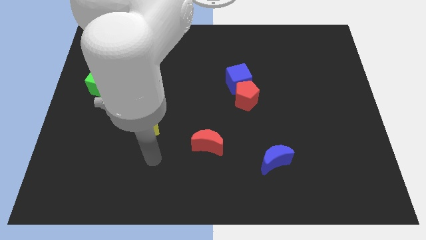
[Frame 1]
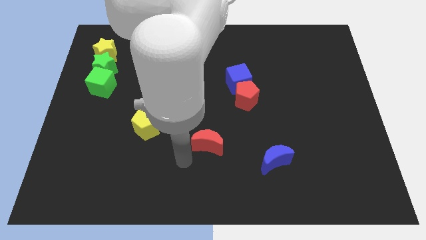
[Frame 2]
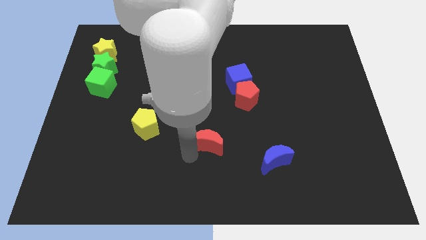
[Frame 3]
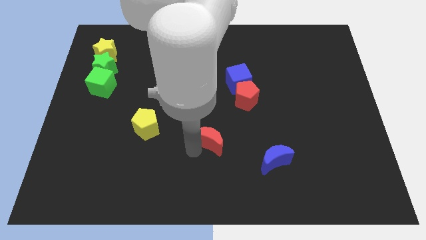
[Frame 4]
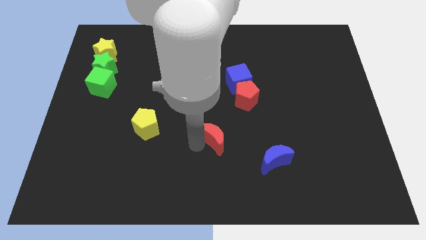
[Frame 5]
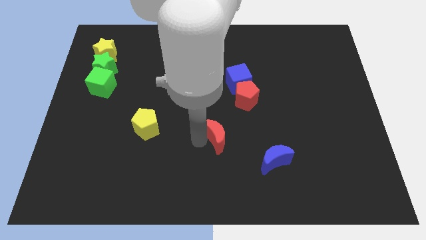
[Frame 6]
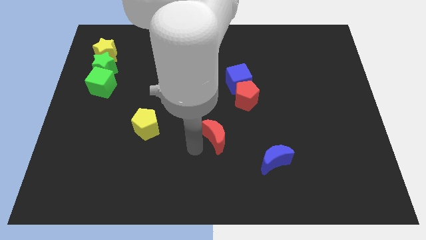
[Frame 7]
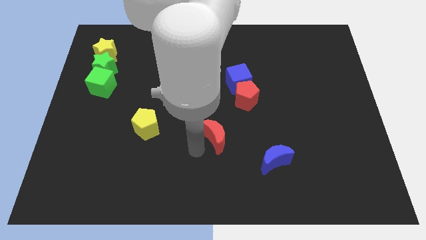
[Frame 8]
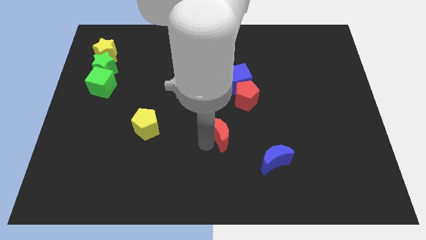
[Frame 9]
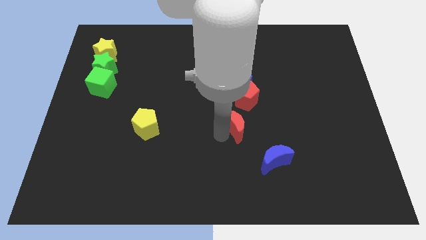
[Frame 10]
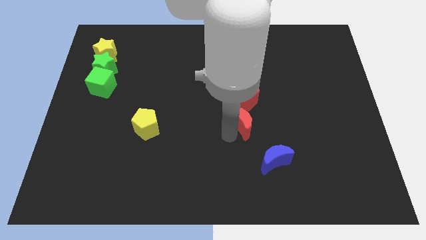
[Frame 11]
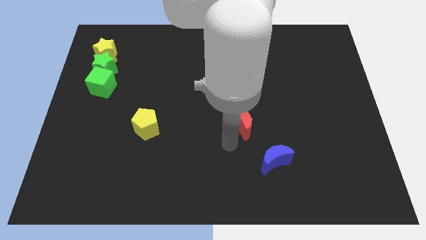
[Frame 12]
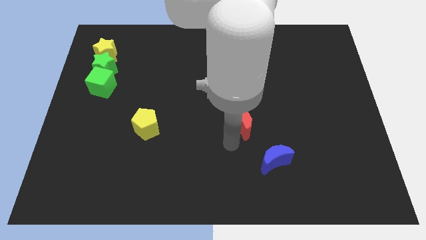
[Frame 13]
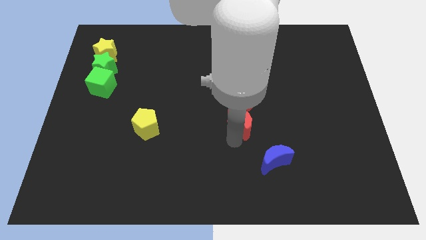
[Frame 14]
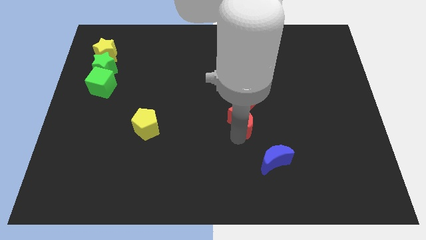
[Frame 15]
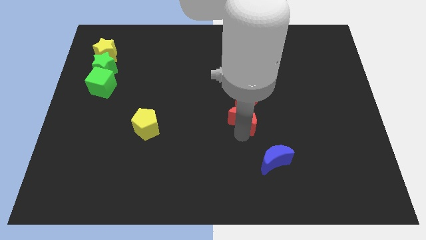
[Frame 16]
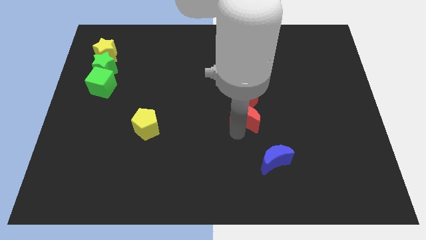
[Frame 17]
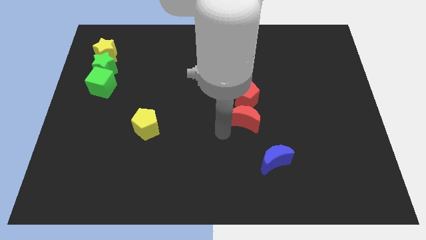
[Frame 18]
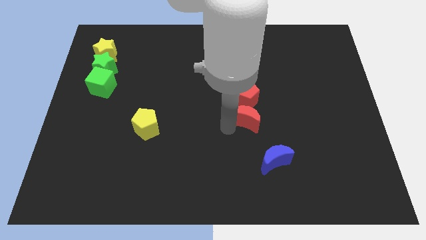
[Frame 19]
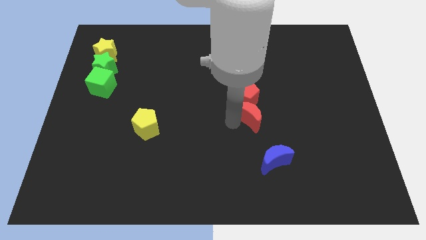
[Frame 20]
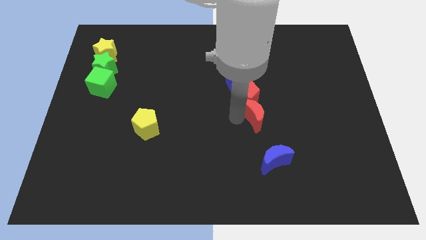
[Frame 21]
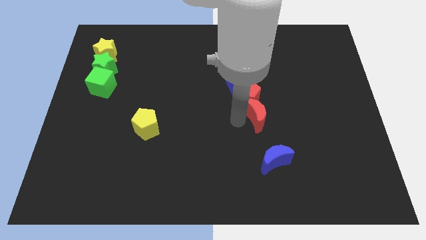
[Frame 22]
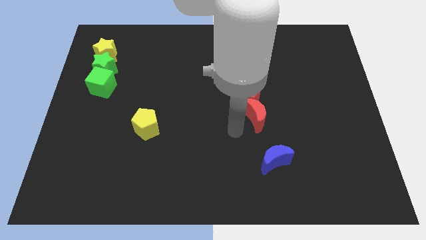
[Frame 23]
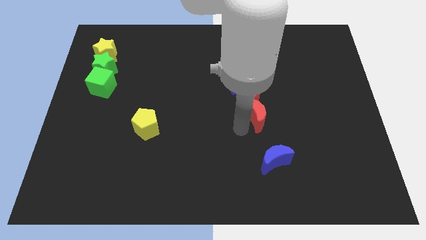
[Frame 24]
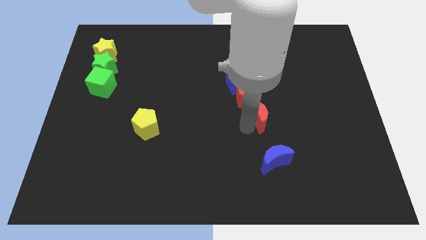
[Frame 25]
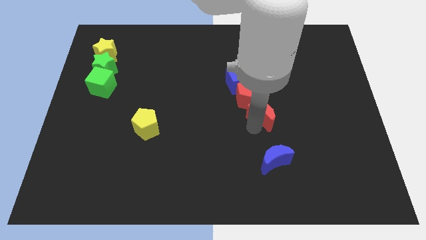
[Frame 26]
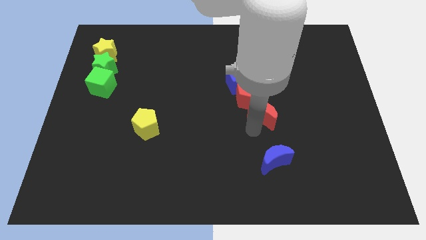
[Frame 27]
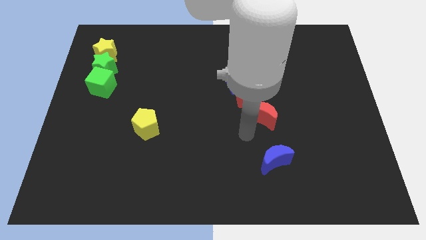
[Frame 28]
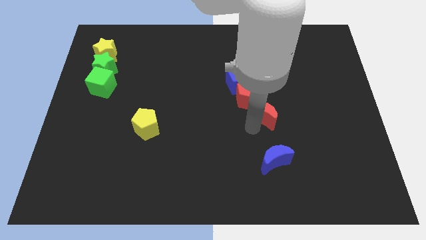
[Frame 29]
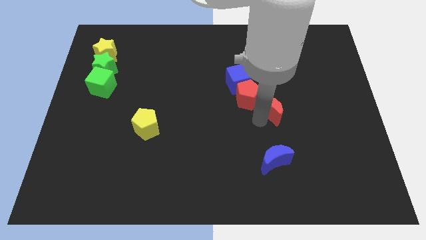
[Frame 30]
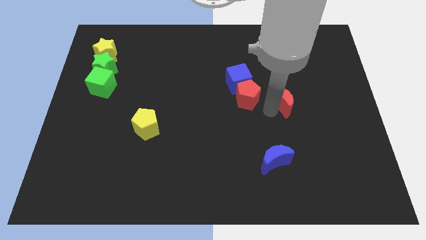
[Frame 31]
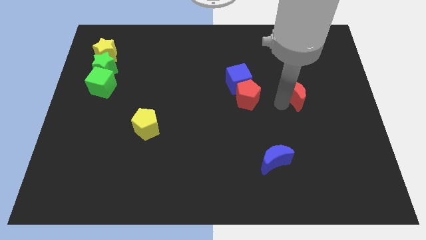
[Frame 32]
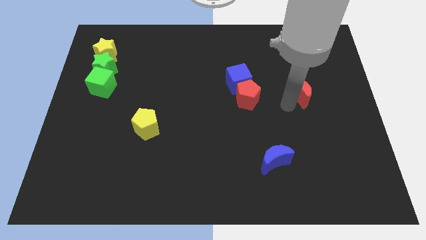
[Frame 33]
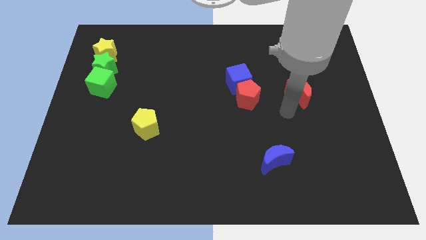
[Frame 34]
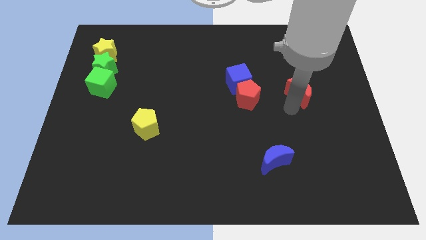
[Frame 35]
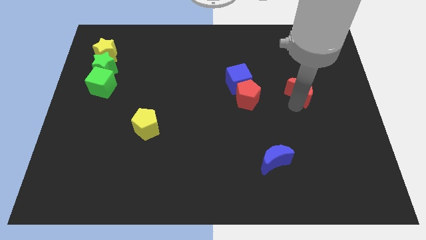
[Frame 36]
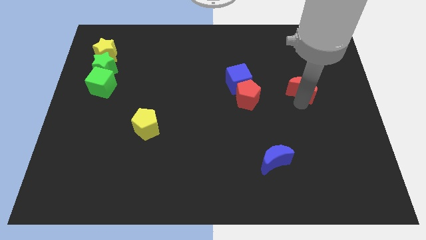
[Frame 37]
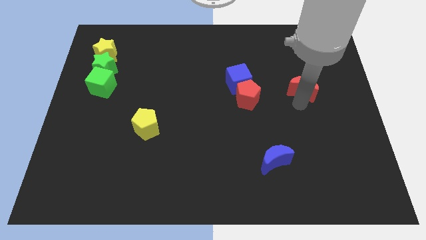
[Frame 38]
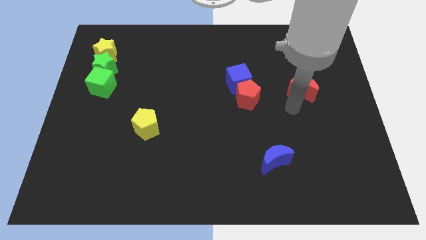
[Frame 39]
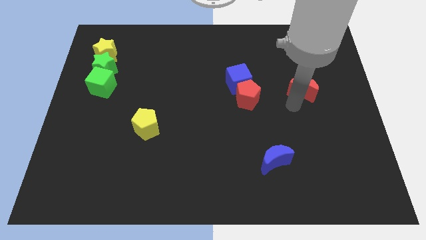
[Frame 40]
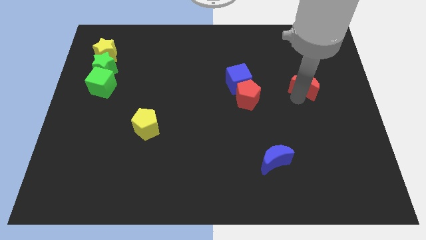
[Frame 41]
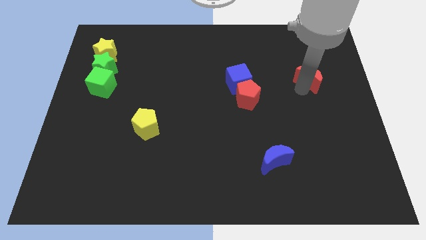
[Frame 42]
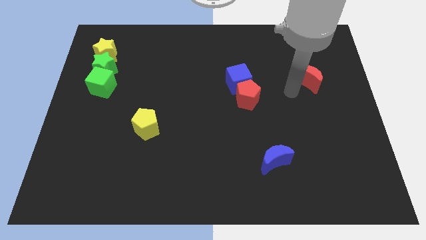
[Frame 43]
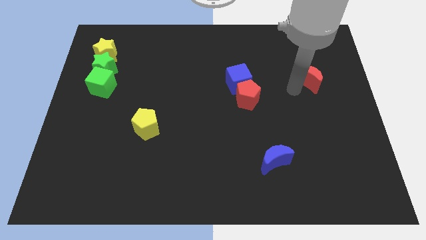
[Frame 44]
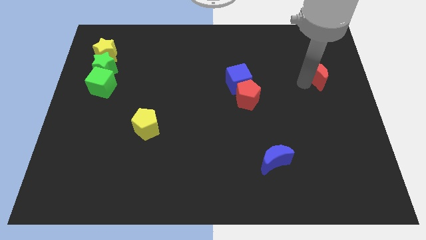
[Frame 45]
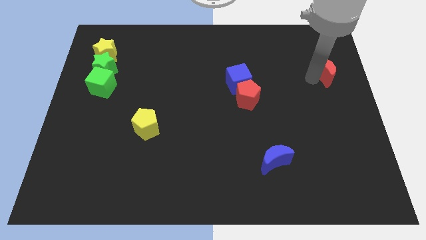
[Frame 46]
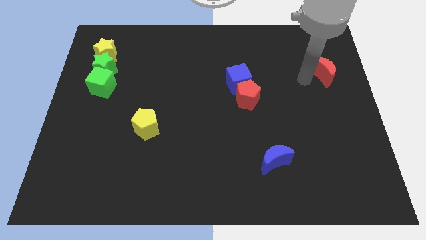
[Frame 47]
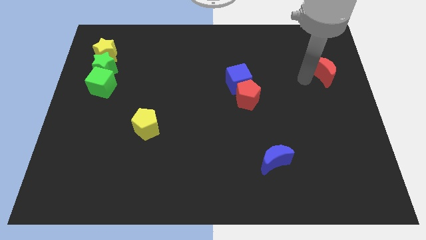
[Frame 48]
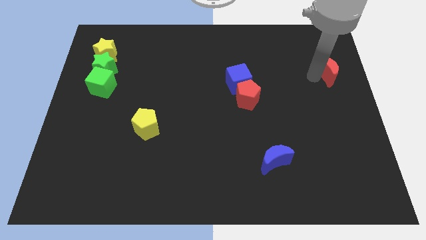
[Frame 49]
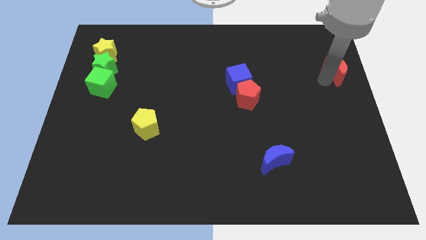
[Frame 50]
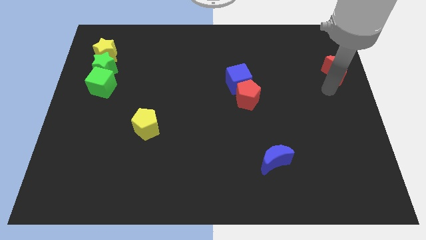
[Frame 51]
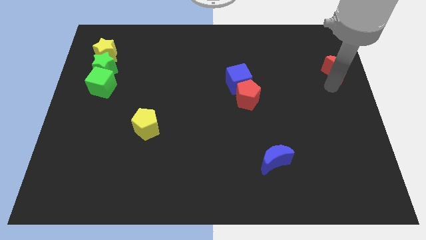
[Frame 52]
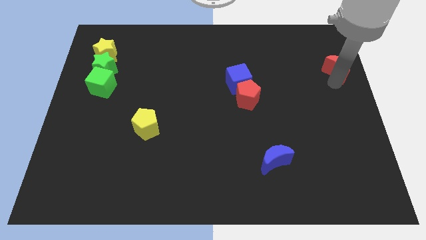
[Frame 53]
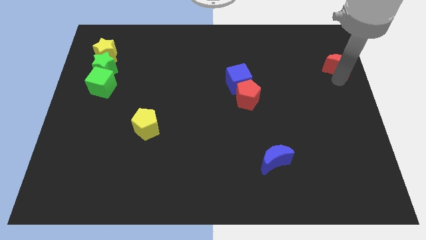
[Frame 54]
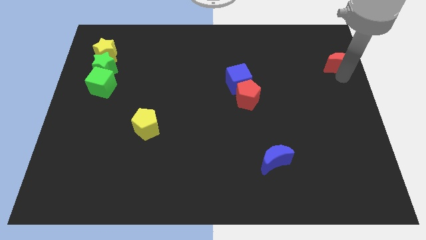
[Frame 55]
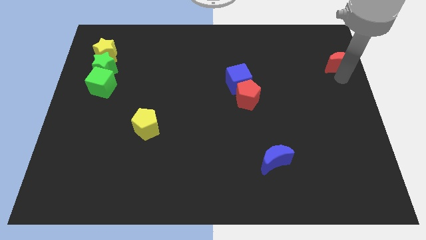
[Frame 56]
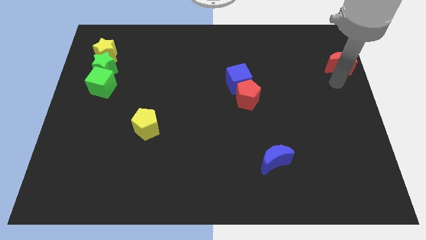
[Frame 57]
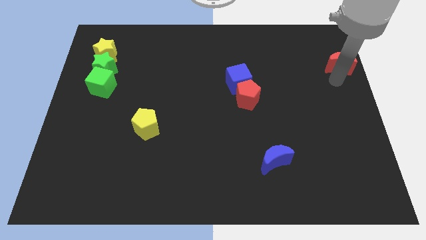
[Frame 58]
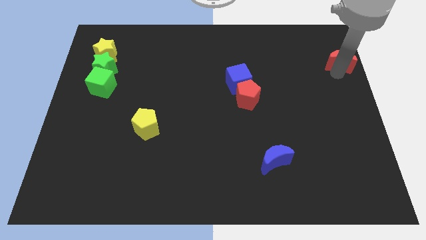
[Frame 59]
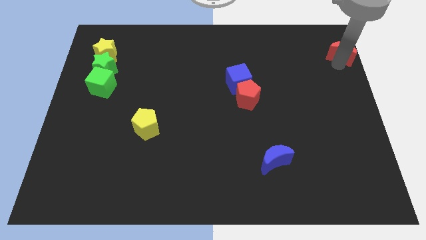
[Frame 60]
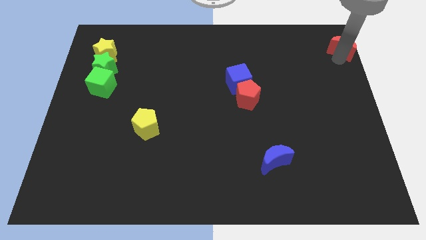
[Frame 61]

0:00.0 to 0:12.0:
push the red moon to the top right corner
